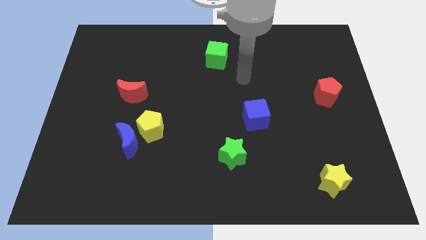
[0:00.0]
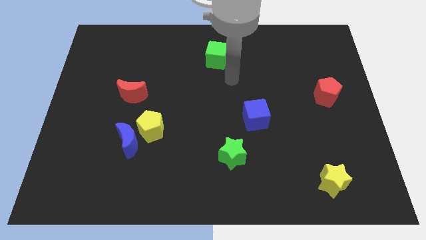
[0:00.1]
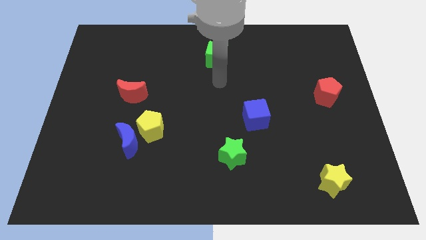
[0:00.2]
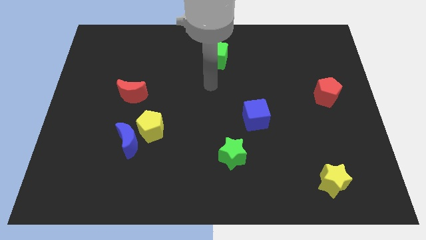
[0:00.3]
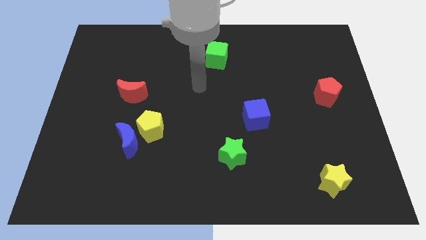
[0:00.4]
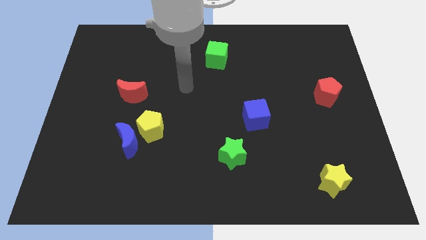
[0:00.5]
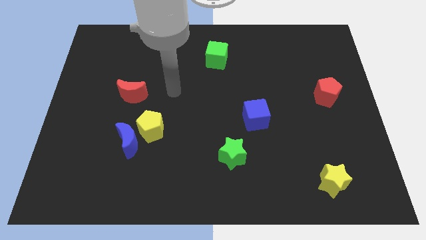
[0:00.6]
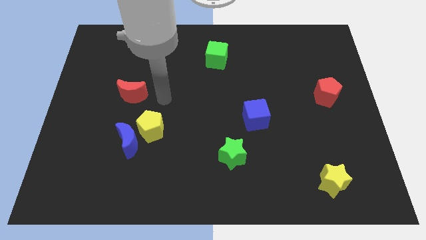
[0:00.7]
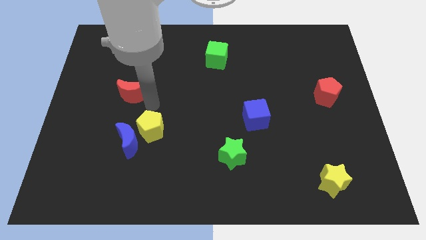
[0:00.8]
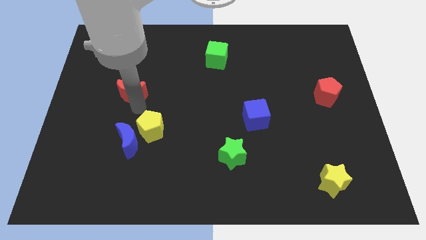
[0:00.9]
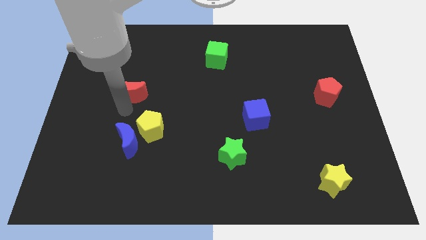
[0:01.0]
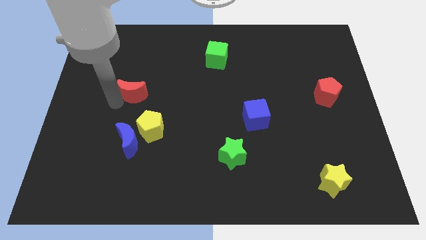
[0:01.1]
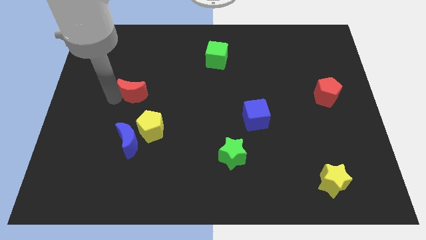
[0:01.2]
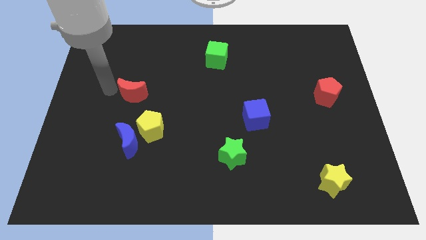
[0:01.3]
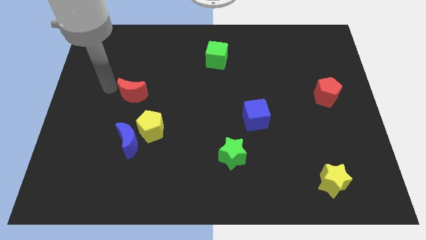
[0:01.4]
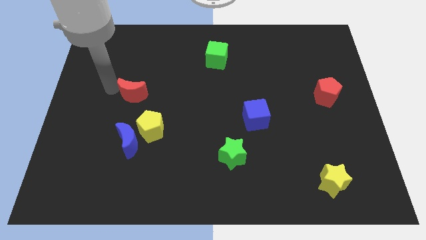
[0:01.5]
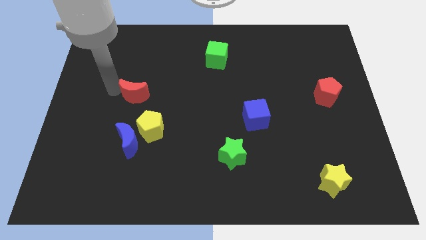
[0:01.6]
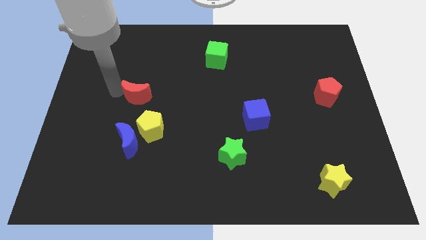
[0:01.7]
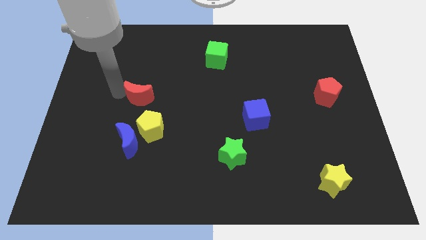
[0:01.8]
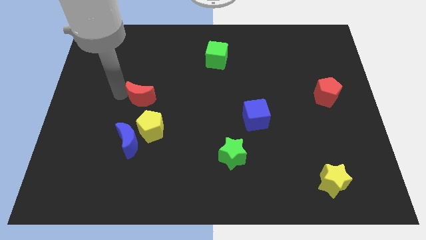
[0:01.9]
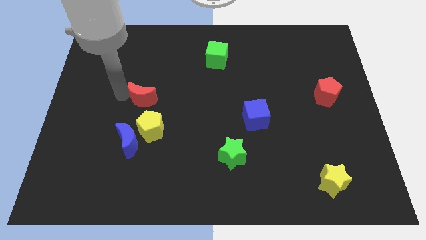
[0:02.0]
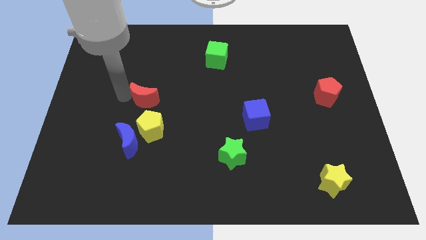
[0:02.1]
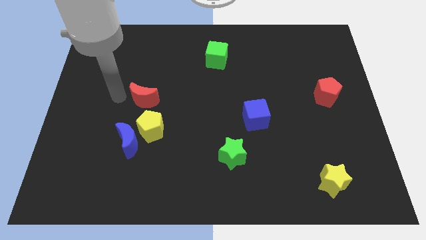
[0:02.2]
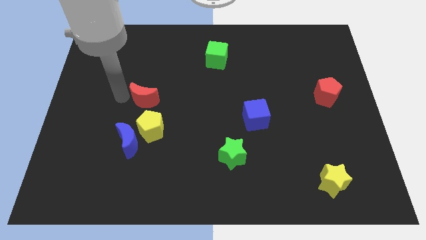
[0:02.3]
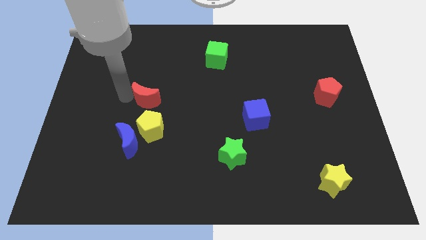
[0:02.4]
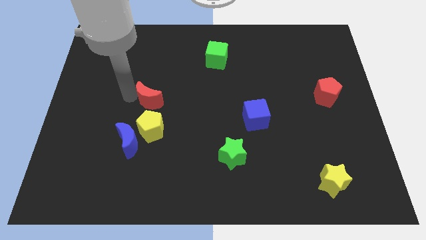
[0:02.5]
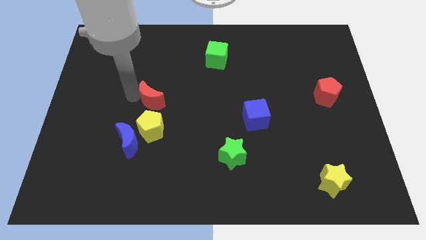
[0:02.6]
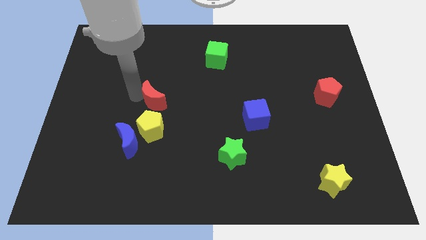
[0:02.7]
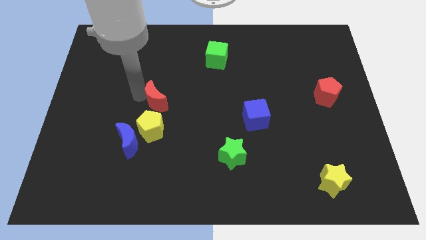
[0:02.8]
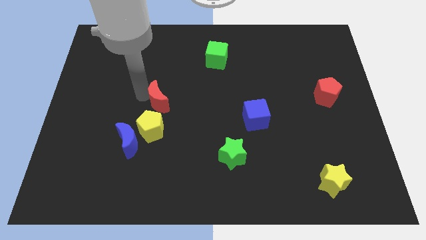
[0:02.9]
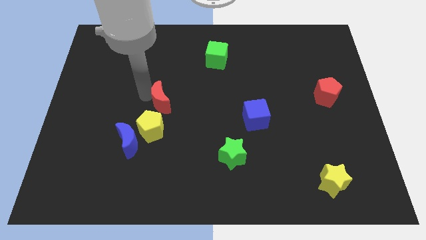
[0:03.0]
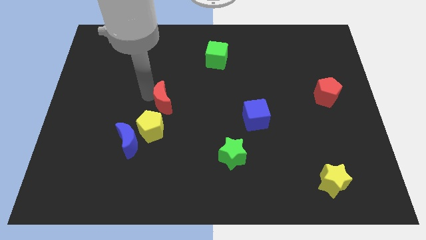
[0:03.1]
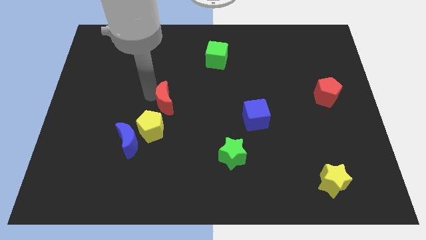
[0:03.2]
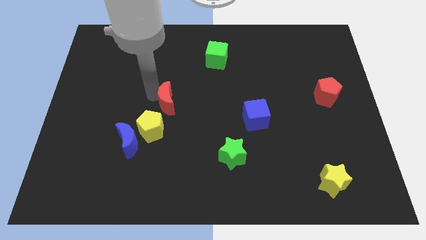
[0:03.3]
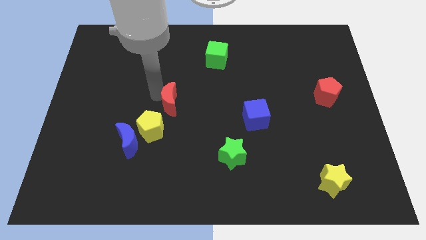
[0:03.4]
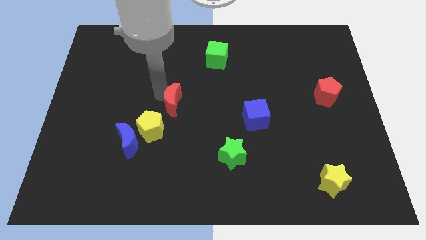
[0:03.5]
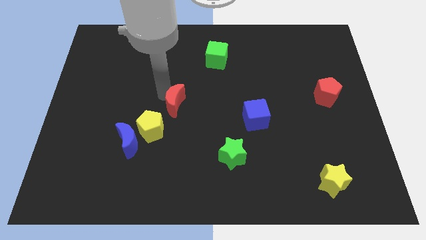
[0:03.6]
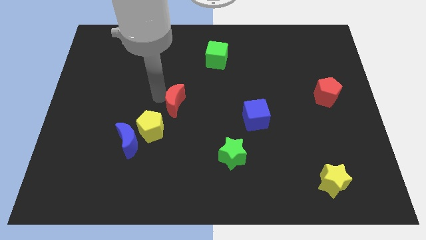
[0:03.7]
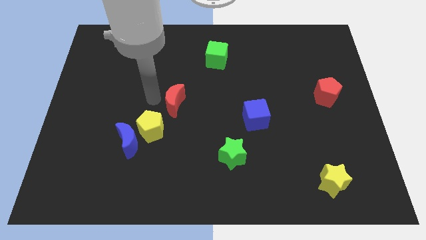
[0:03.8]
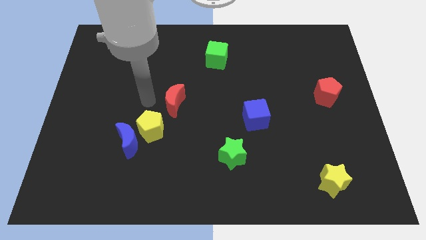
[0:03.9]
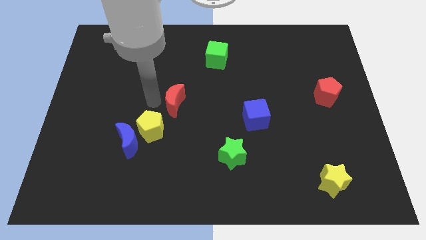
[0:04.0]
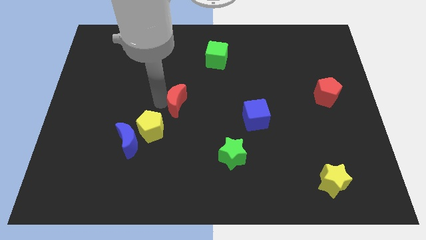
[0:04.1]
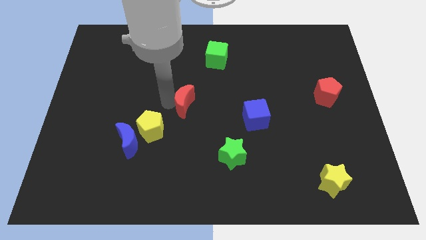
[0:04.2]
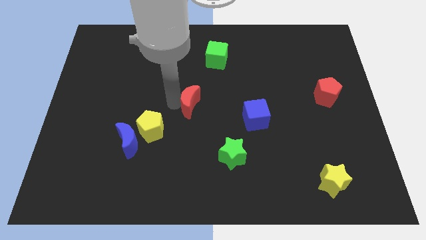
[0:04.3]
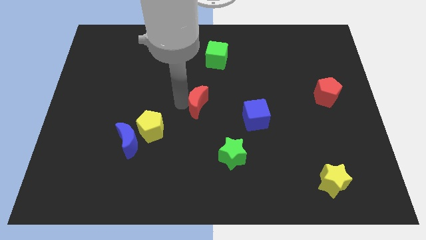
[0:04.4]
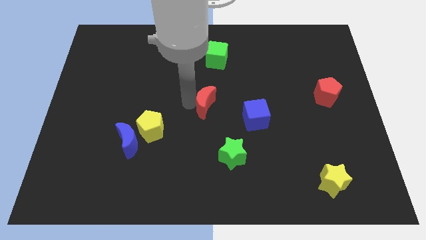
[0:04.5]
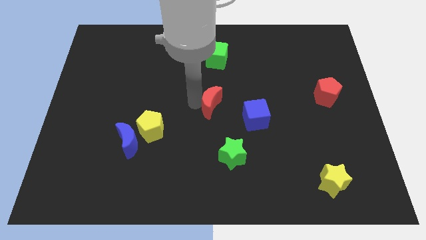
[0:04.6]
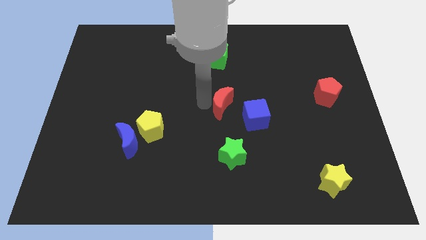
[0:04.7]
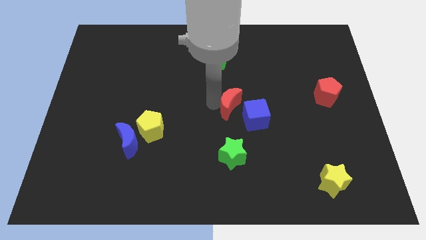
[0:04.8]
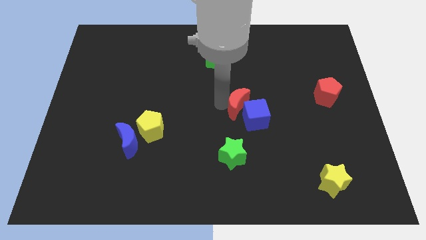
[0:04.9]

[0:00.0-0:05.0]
push the red moon towards the blue cube

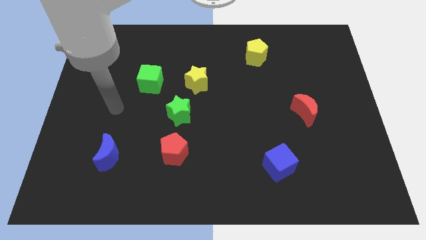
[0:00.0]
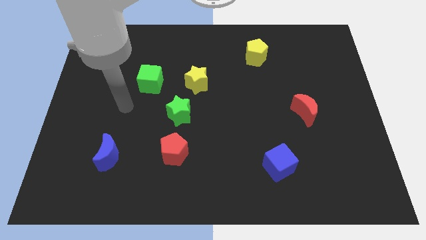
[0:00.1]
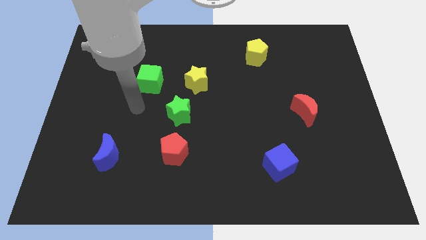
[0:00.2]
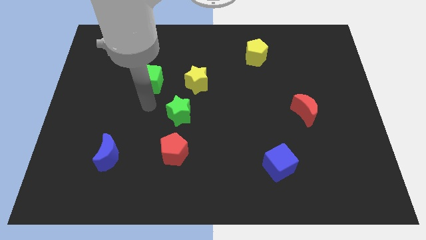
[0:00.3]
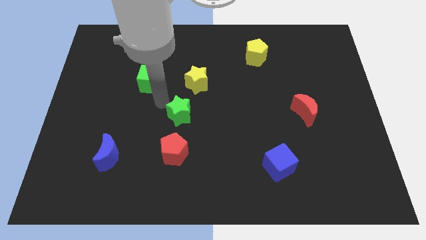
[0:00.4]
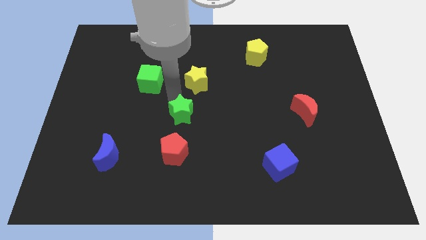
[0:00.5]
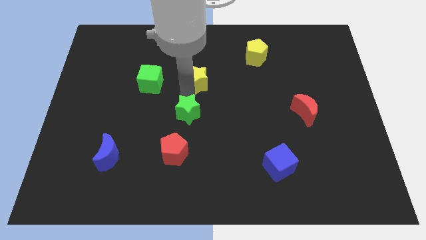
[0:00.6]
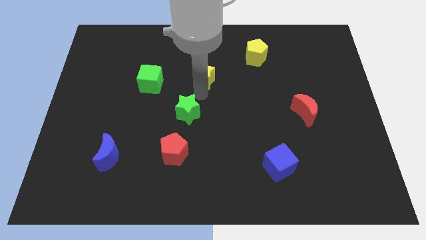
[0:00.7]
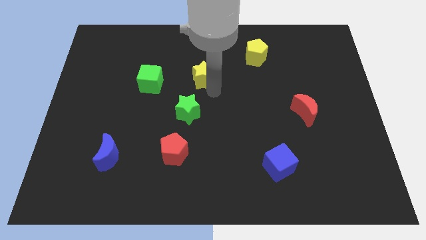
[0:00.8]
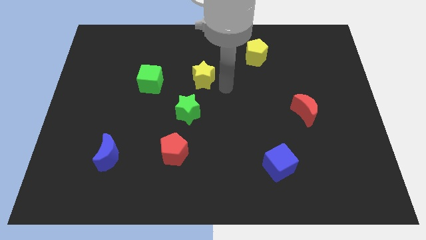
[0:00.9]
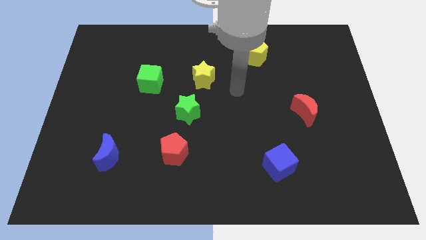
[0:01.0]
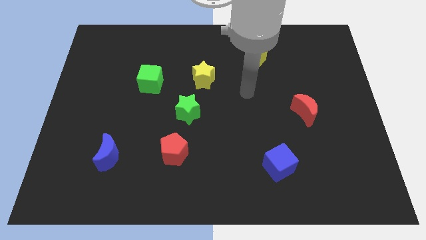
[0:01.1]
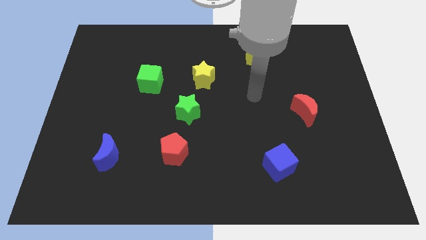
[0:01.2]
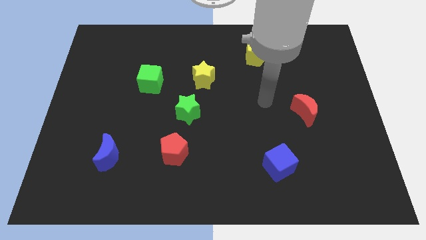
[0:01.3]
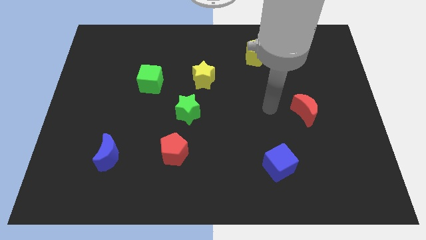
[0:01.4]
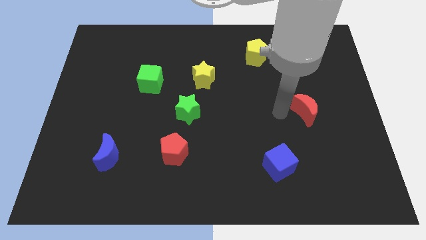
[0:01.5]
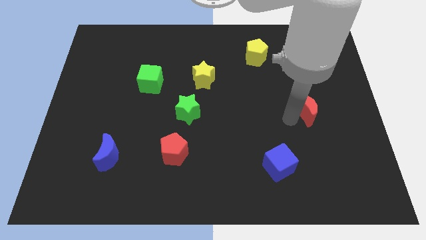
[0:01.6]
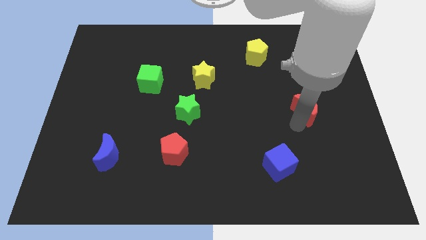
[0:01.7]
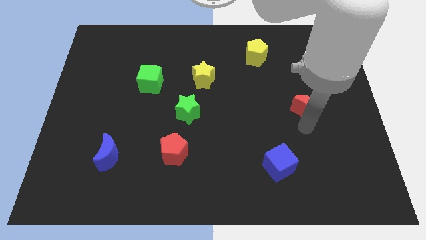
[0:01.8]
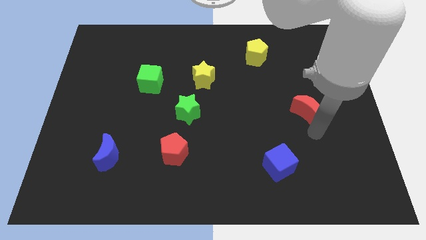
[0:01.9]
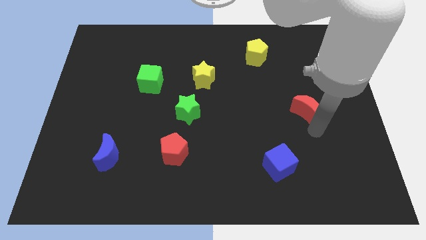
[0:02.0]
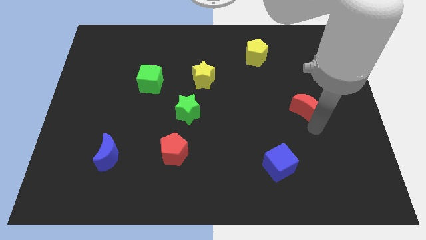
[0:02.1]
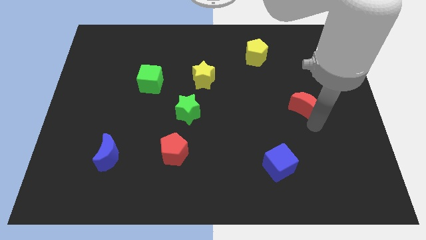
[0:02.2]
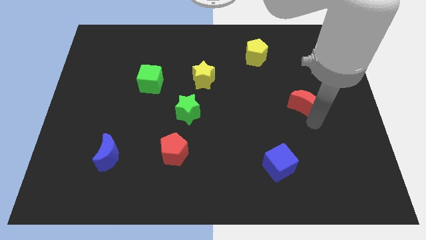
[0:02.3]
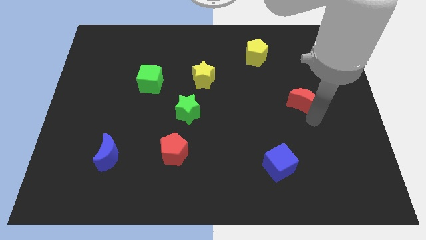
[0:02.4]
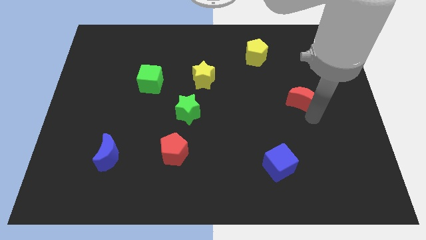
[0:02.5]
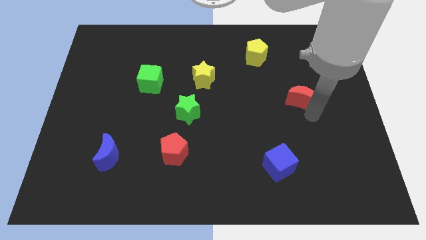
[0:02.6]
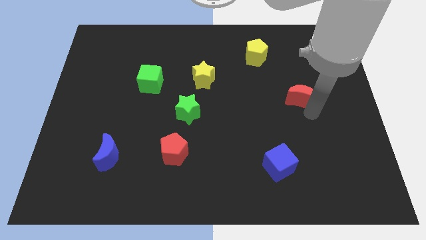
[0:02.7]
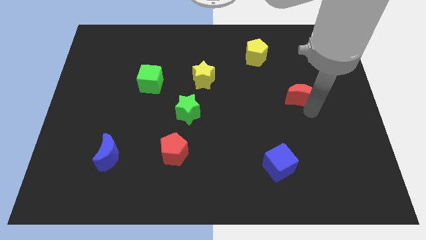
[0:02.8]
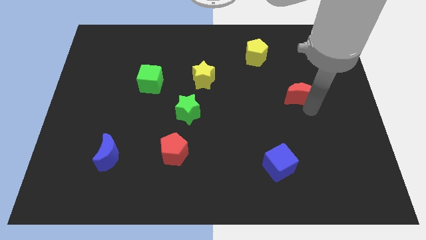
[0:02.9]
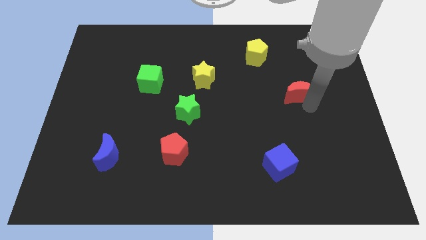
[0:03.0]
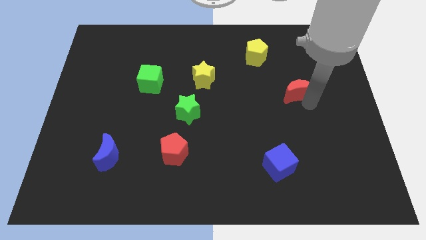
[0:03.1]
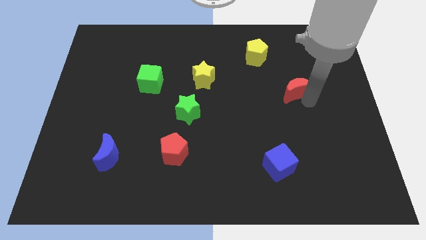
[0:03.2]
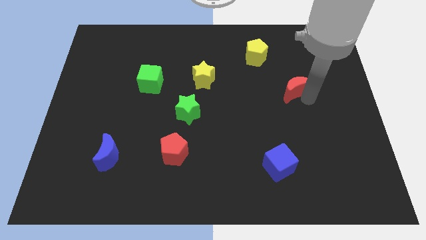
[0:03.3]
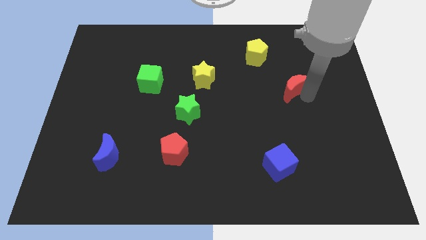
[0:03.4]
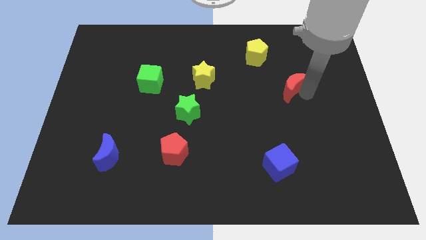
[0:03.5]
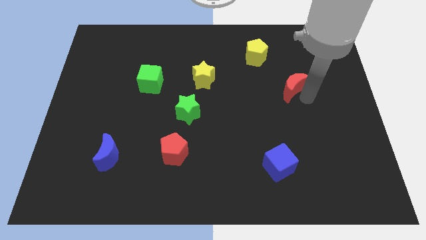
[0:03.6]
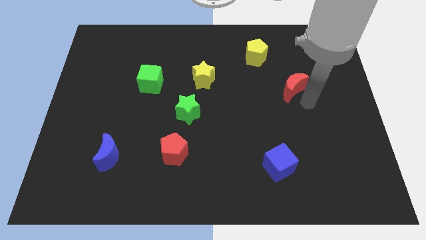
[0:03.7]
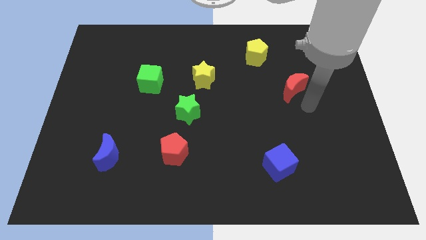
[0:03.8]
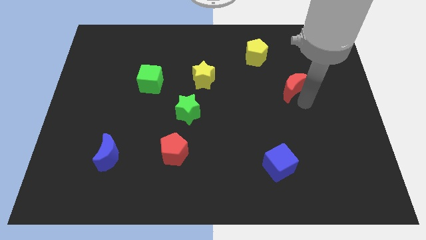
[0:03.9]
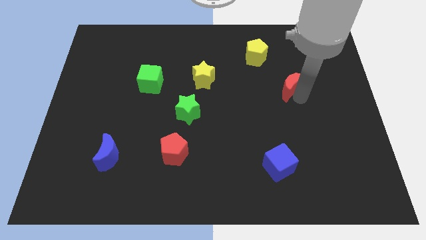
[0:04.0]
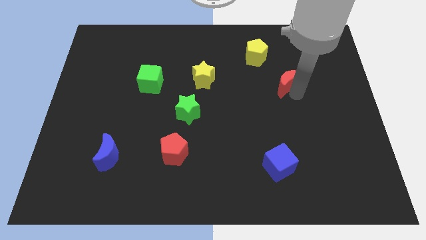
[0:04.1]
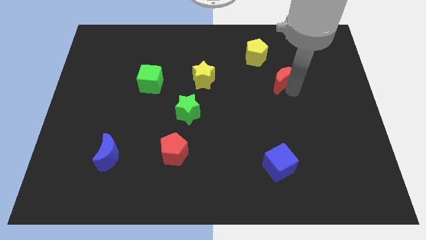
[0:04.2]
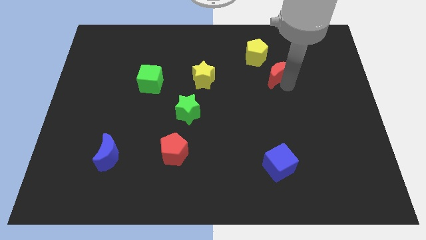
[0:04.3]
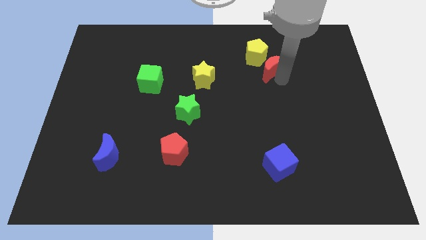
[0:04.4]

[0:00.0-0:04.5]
slide the red moon to the yellow pentagon
